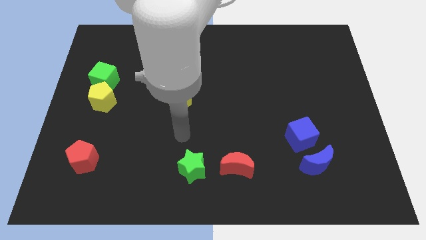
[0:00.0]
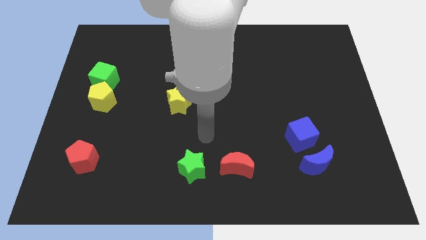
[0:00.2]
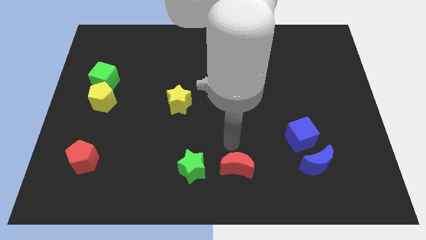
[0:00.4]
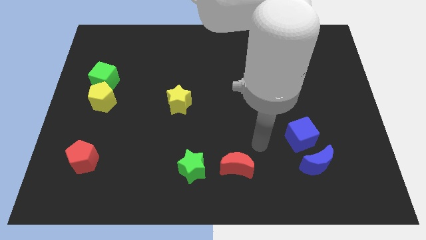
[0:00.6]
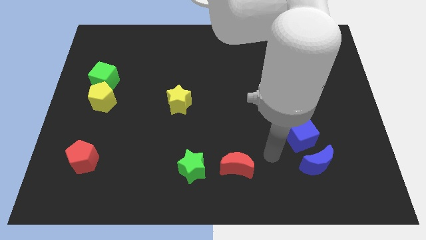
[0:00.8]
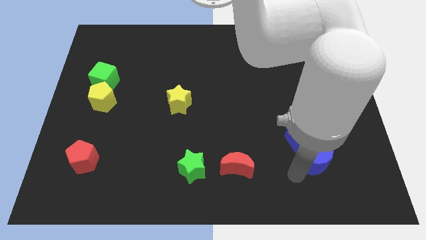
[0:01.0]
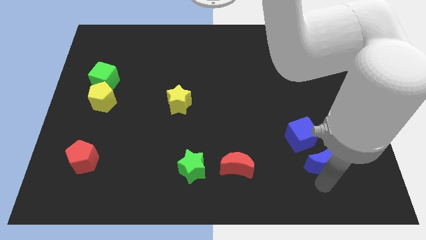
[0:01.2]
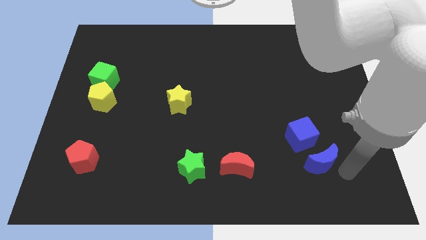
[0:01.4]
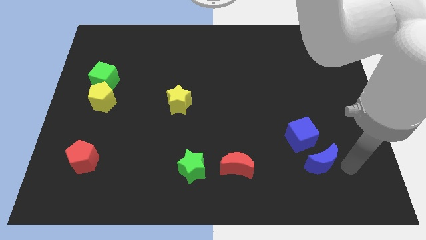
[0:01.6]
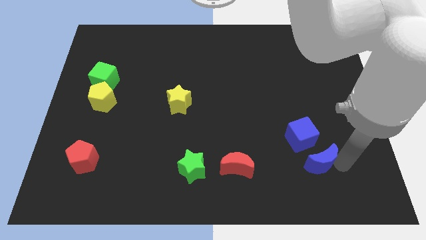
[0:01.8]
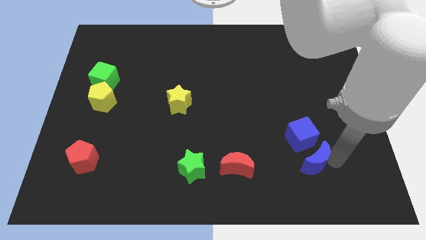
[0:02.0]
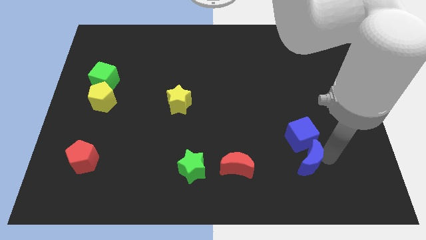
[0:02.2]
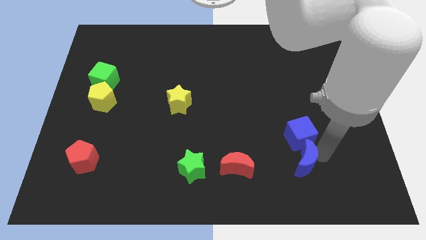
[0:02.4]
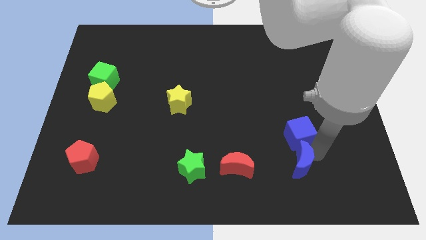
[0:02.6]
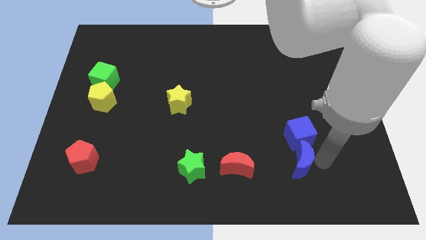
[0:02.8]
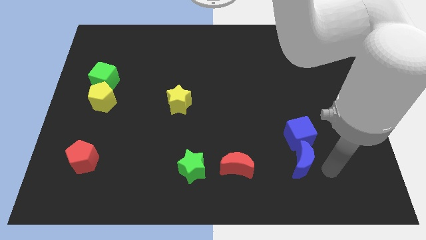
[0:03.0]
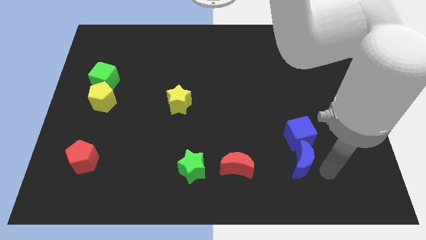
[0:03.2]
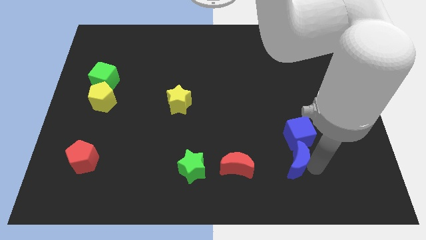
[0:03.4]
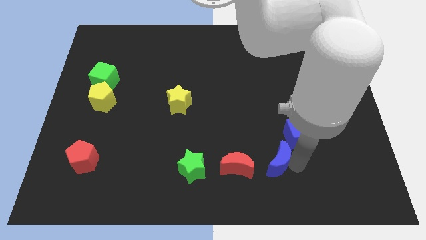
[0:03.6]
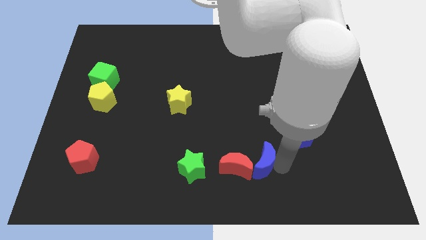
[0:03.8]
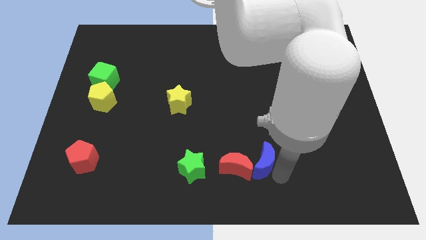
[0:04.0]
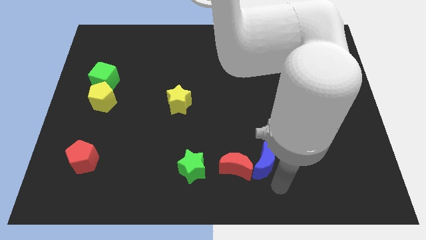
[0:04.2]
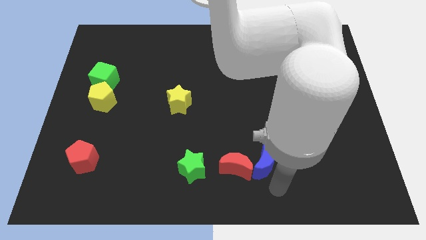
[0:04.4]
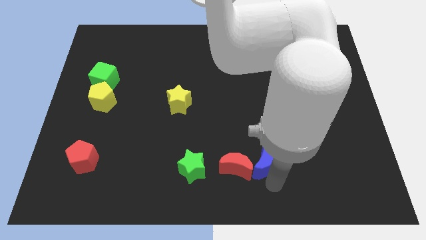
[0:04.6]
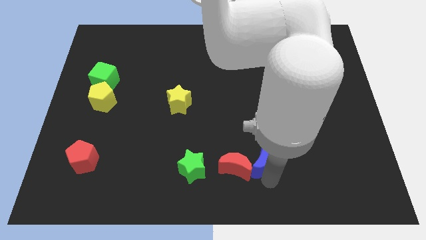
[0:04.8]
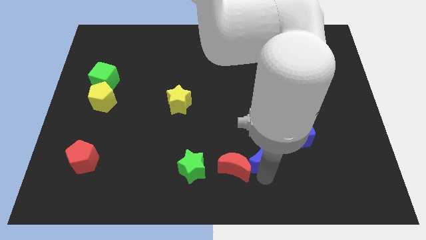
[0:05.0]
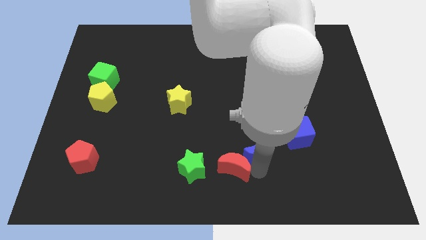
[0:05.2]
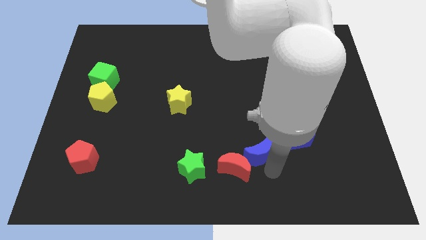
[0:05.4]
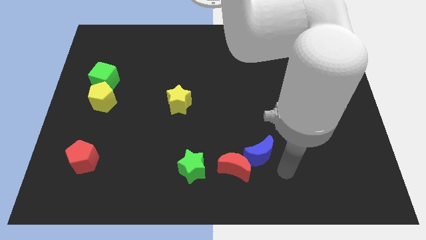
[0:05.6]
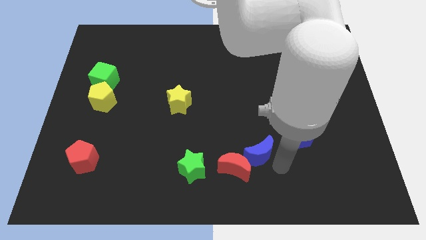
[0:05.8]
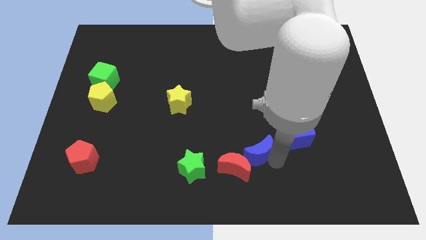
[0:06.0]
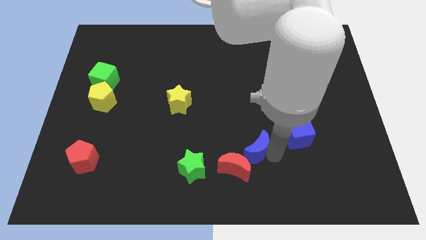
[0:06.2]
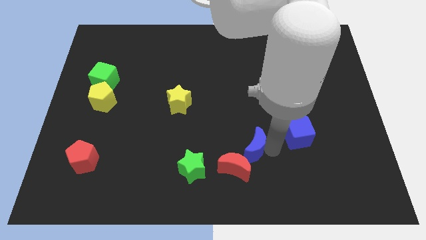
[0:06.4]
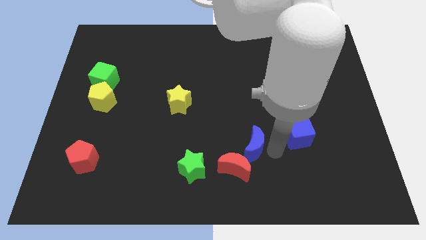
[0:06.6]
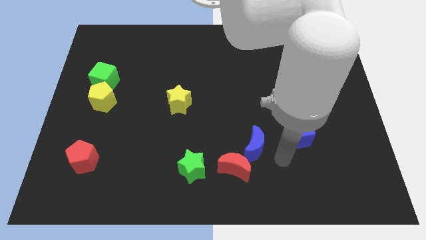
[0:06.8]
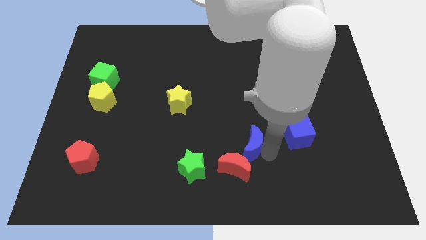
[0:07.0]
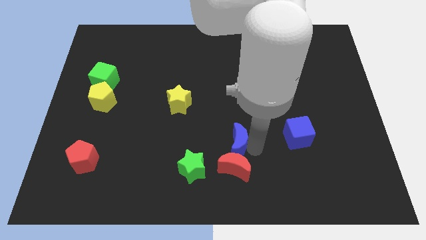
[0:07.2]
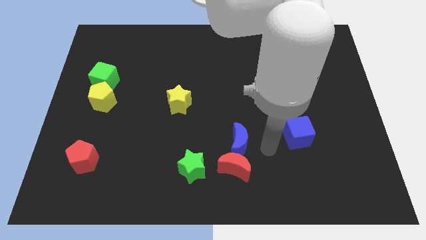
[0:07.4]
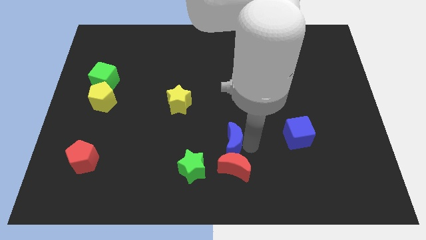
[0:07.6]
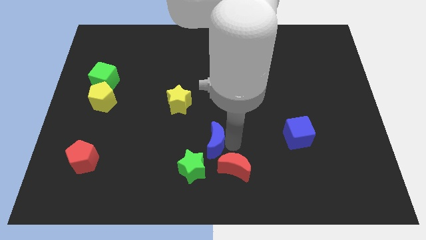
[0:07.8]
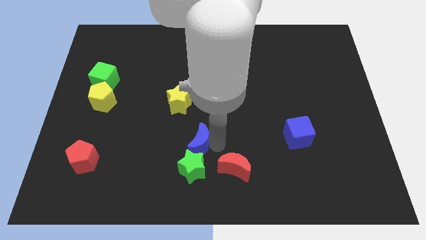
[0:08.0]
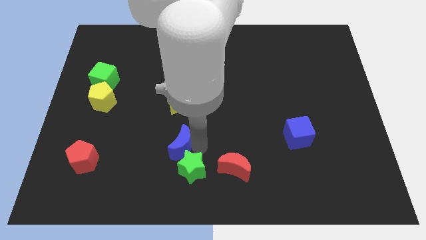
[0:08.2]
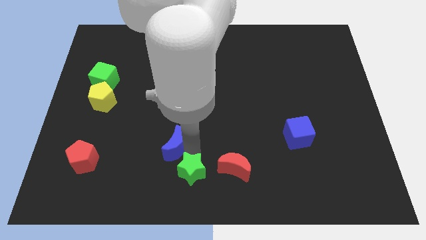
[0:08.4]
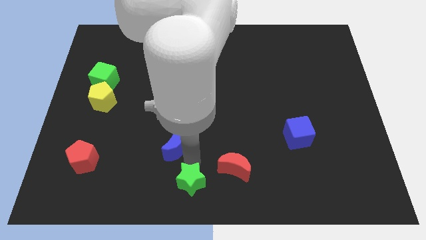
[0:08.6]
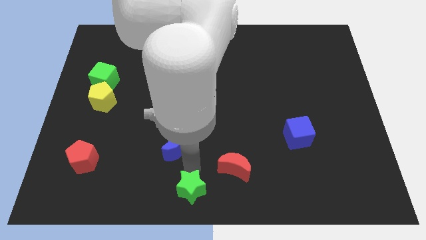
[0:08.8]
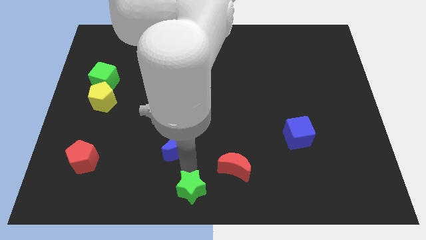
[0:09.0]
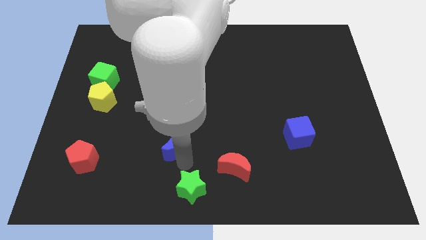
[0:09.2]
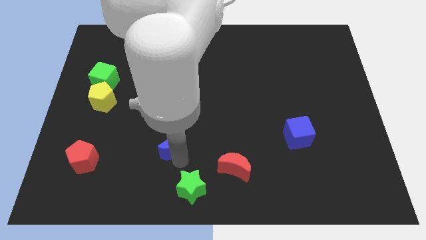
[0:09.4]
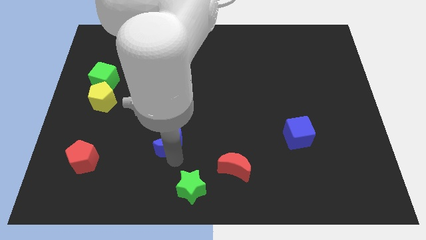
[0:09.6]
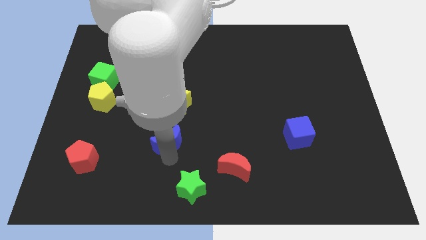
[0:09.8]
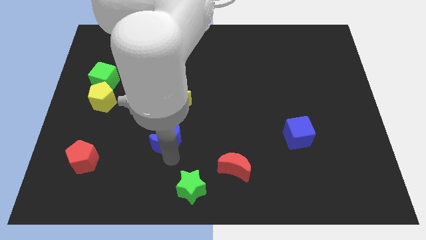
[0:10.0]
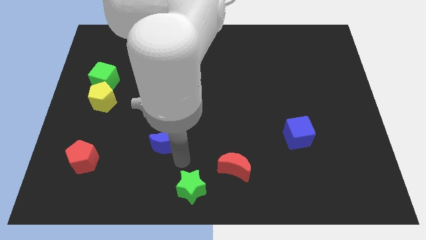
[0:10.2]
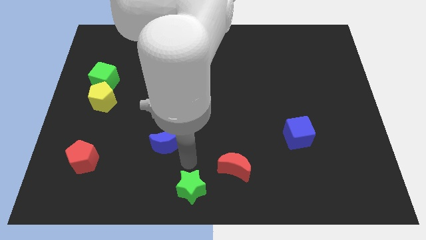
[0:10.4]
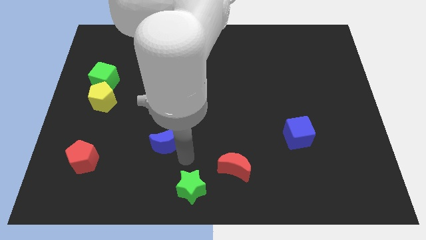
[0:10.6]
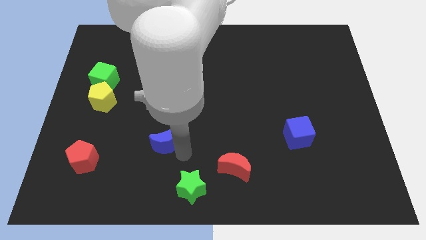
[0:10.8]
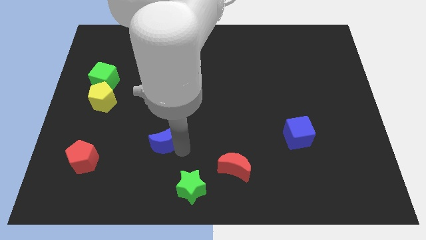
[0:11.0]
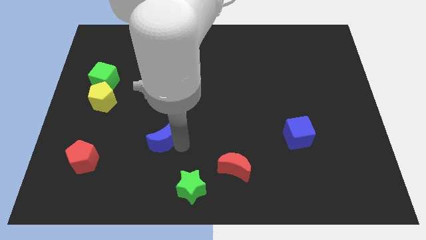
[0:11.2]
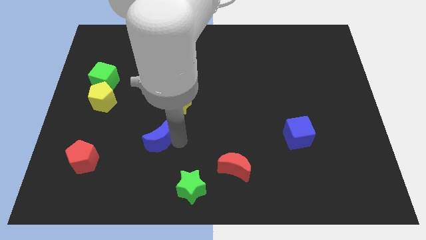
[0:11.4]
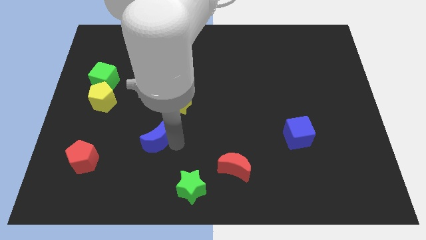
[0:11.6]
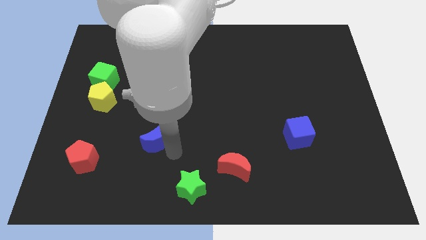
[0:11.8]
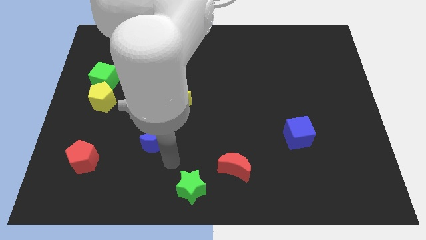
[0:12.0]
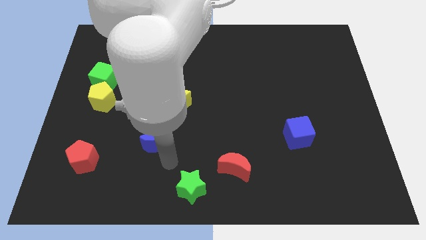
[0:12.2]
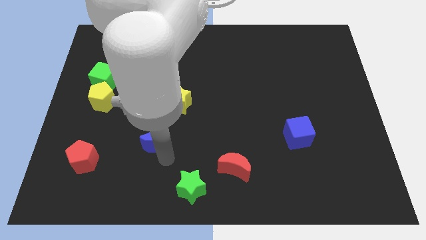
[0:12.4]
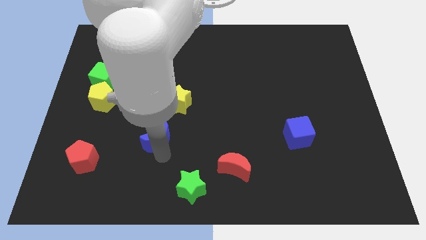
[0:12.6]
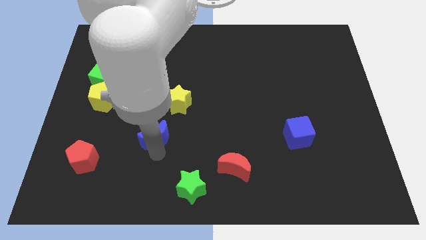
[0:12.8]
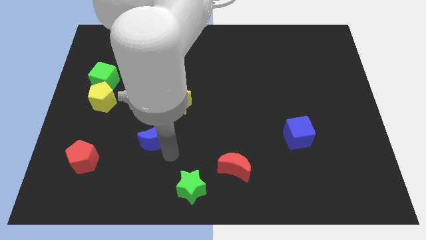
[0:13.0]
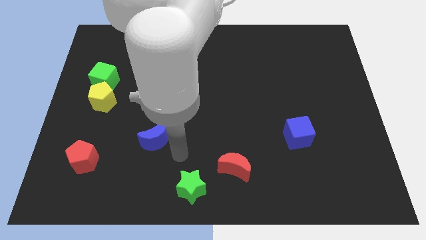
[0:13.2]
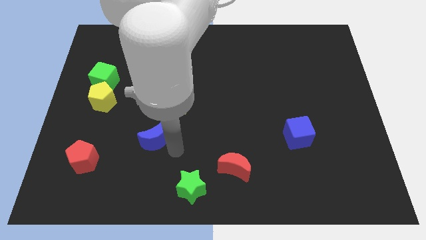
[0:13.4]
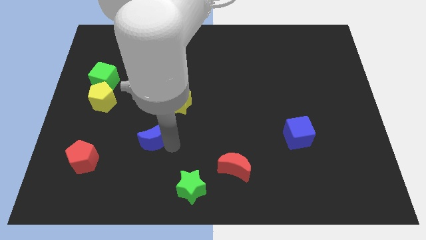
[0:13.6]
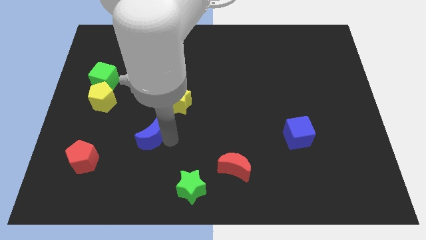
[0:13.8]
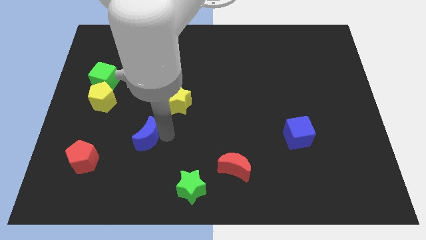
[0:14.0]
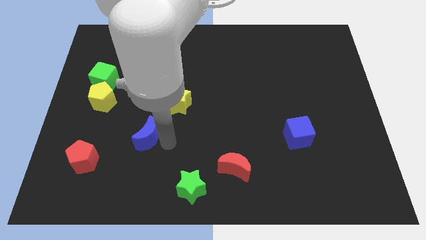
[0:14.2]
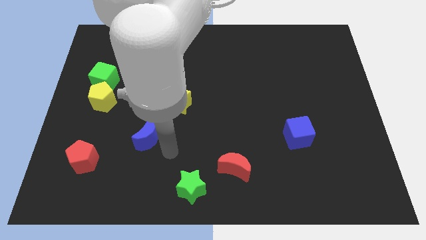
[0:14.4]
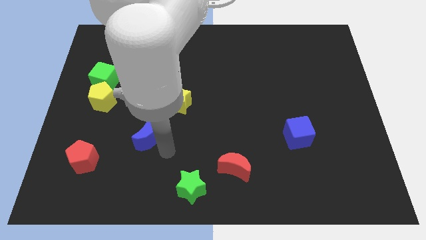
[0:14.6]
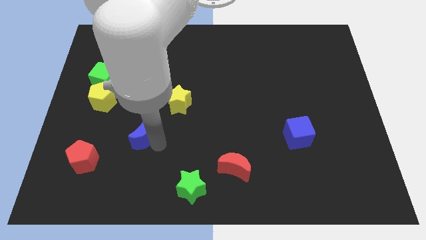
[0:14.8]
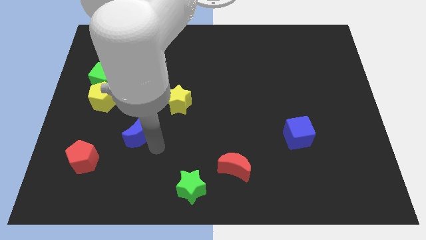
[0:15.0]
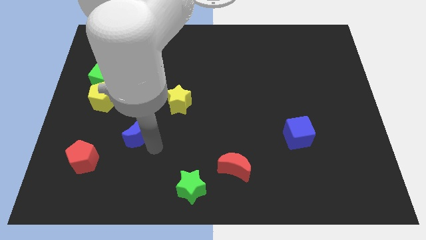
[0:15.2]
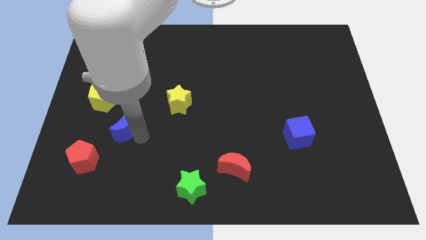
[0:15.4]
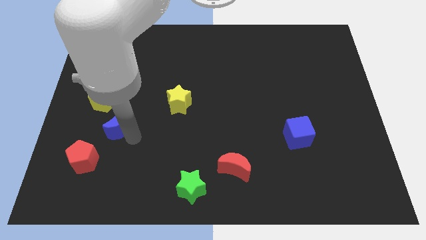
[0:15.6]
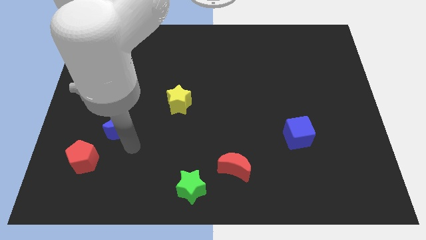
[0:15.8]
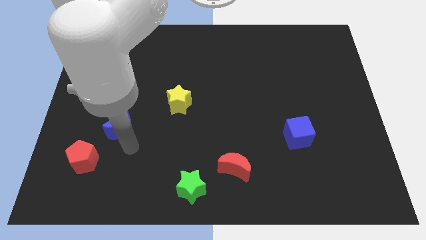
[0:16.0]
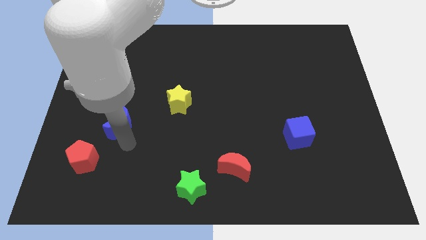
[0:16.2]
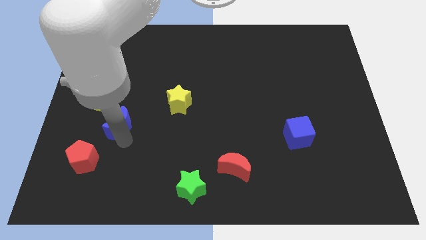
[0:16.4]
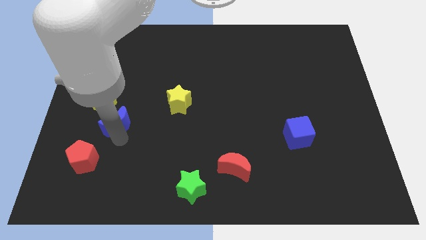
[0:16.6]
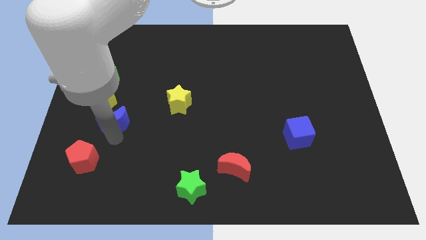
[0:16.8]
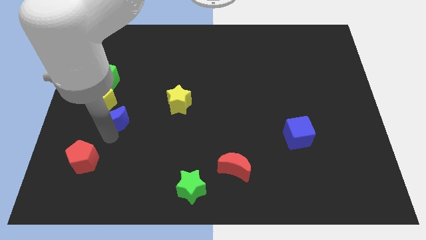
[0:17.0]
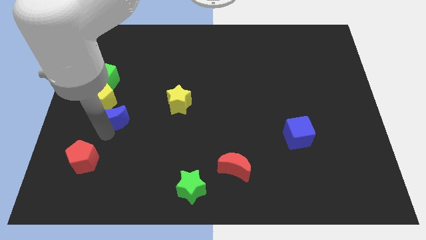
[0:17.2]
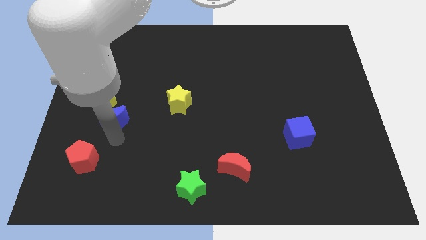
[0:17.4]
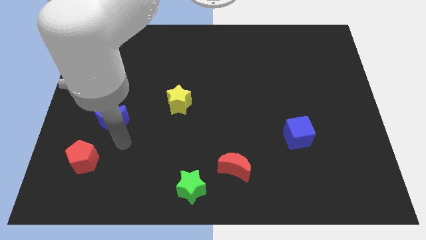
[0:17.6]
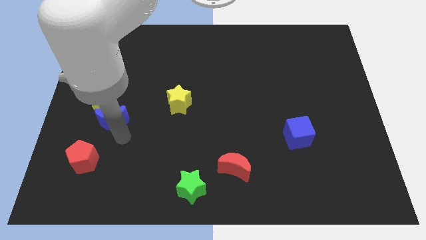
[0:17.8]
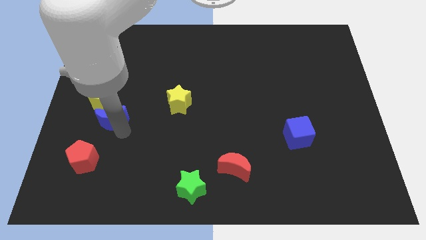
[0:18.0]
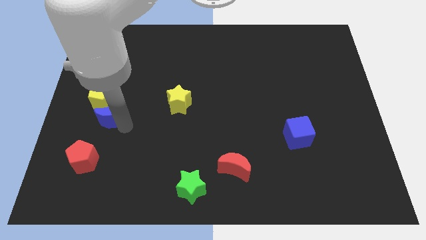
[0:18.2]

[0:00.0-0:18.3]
push the blue moon close to the yellow pentagon
